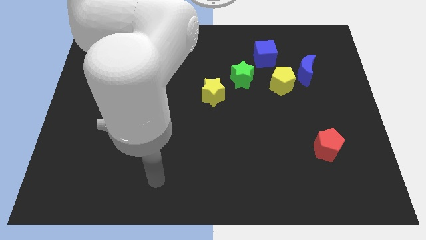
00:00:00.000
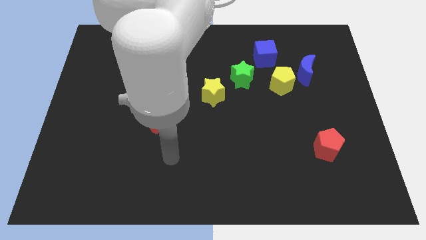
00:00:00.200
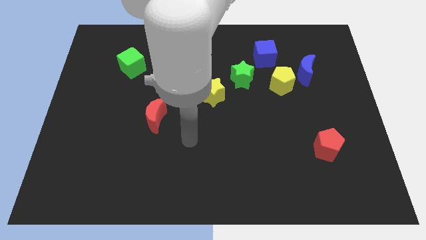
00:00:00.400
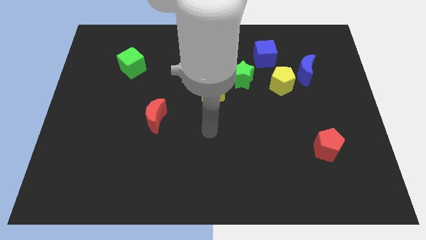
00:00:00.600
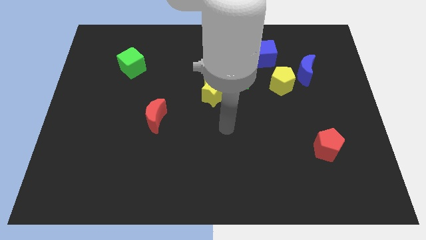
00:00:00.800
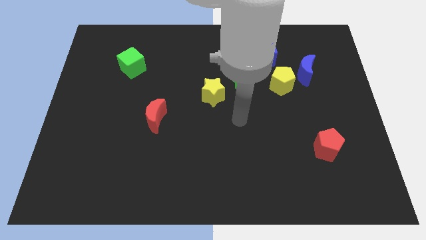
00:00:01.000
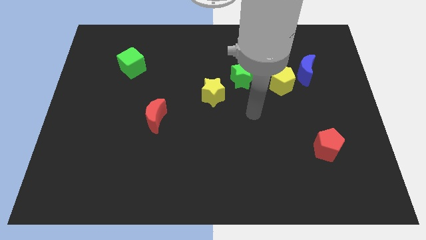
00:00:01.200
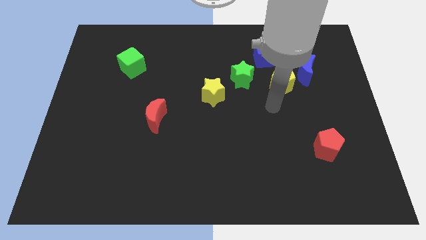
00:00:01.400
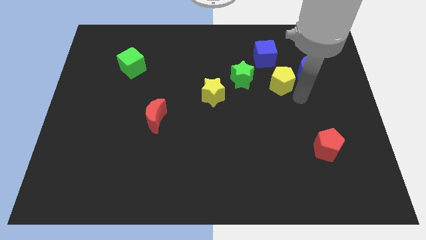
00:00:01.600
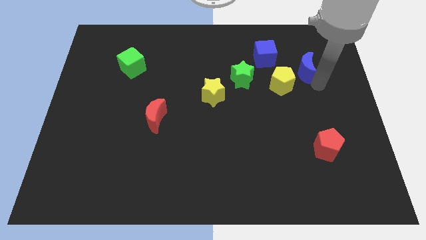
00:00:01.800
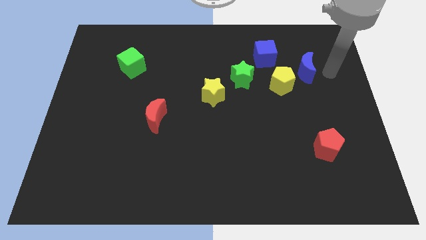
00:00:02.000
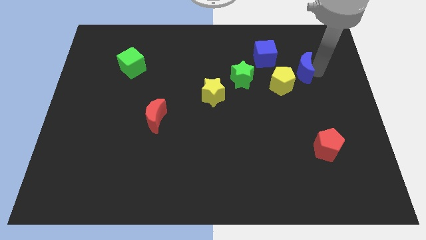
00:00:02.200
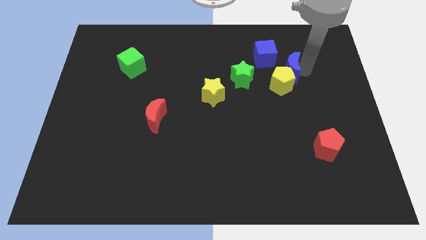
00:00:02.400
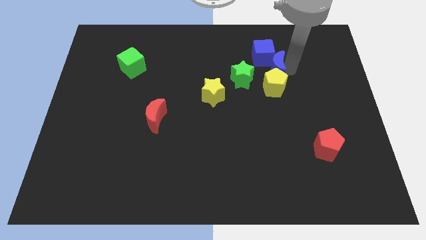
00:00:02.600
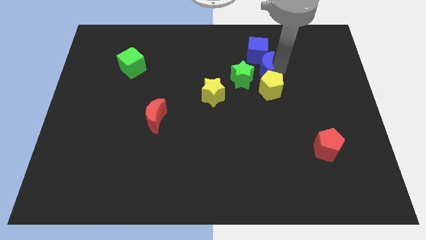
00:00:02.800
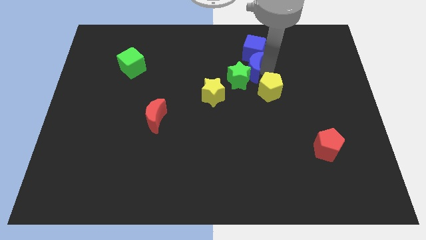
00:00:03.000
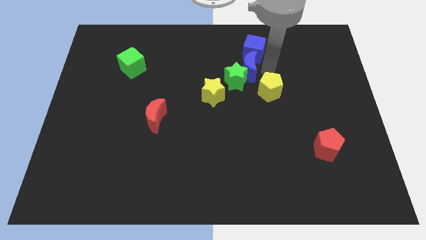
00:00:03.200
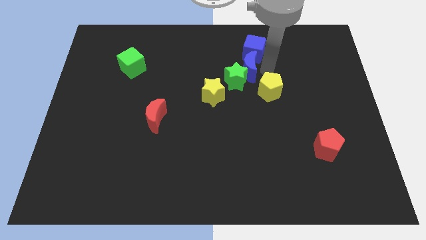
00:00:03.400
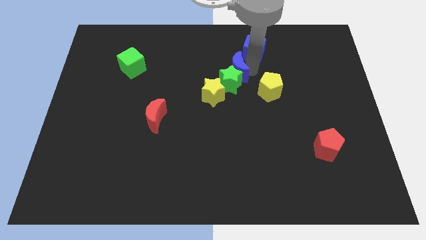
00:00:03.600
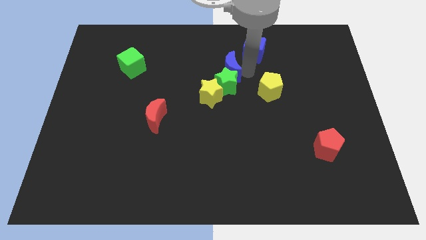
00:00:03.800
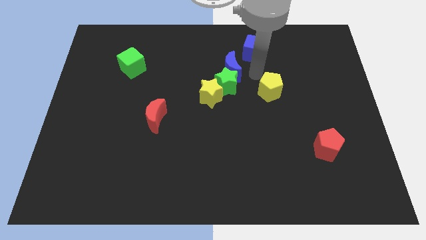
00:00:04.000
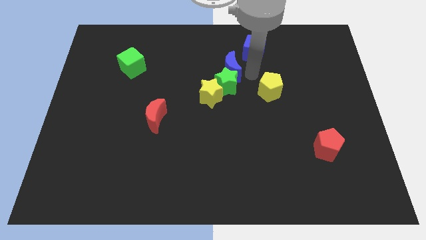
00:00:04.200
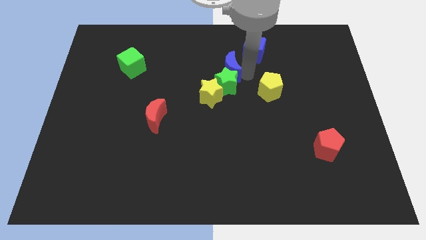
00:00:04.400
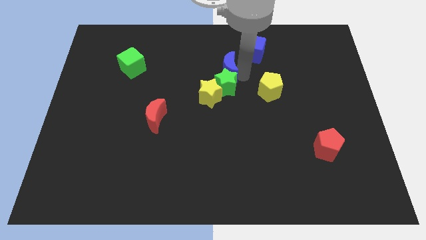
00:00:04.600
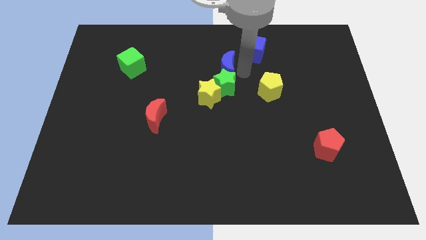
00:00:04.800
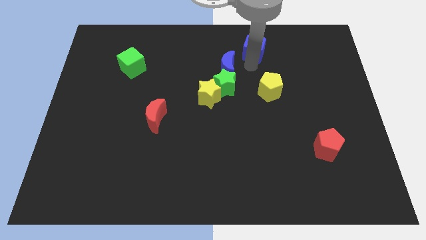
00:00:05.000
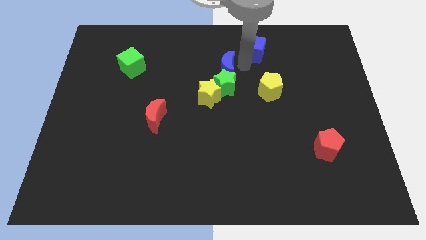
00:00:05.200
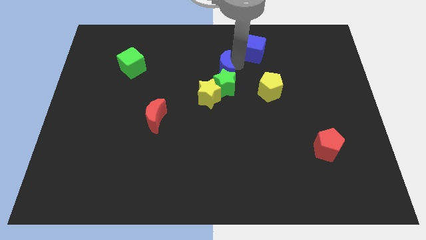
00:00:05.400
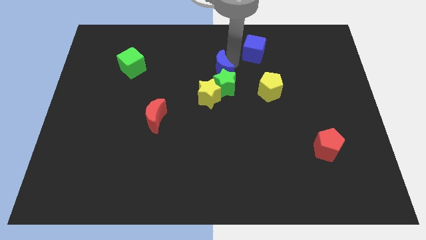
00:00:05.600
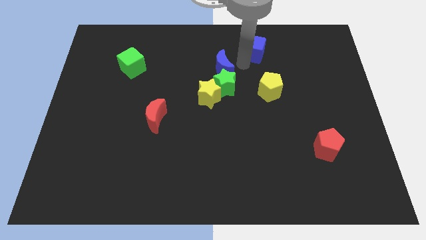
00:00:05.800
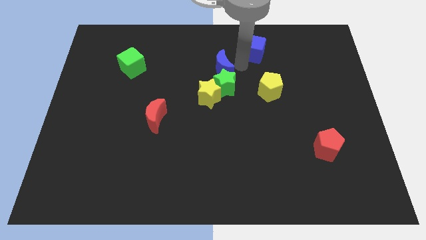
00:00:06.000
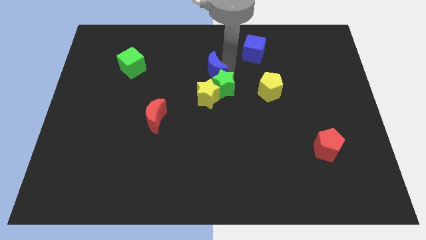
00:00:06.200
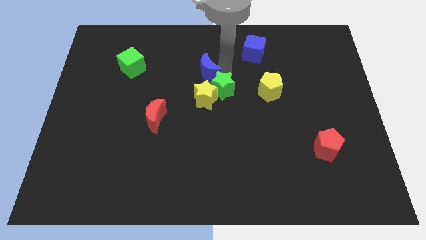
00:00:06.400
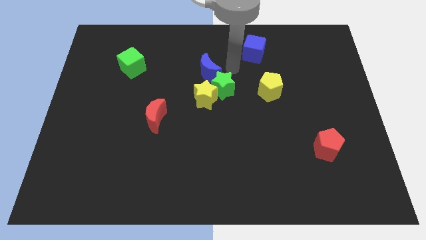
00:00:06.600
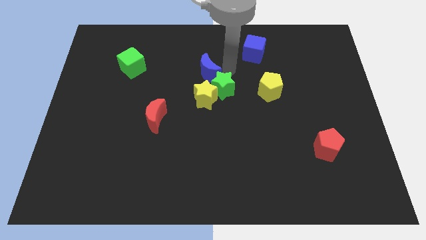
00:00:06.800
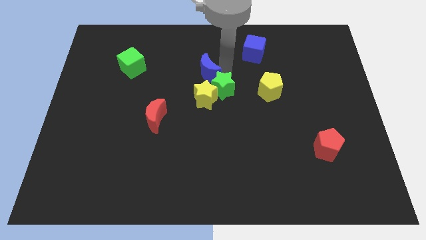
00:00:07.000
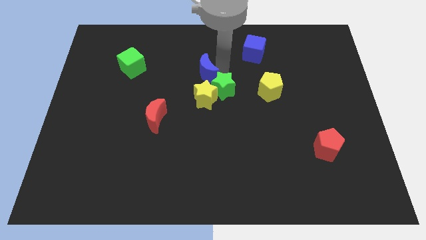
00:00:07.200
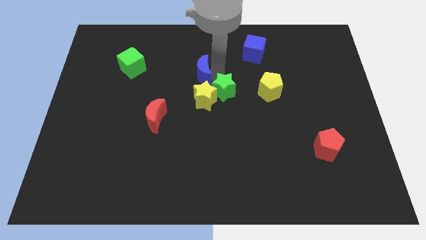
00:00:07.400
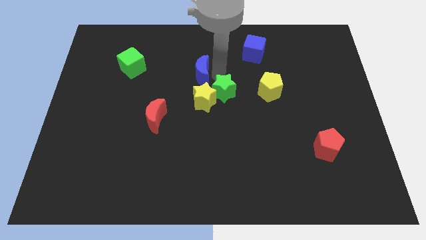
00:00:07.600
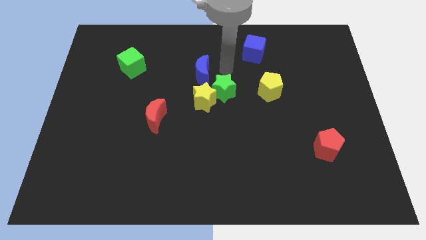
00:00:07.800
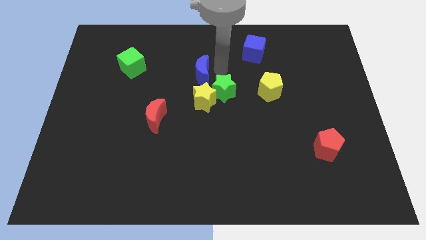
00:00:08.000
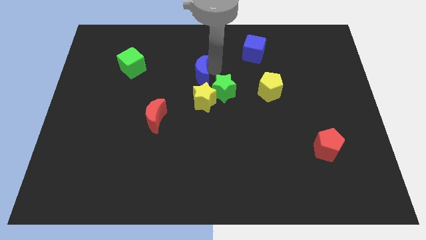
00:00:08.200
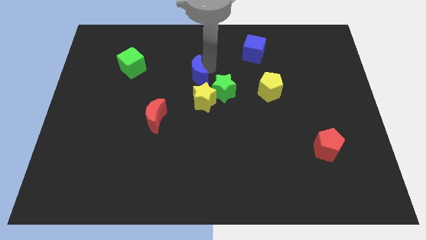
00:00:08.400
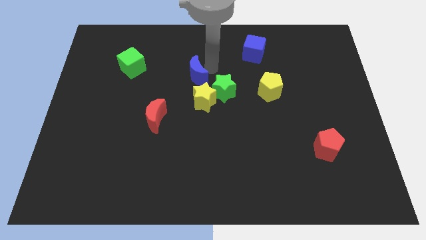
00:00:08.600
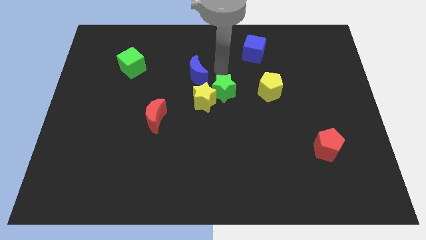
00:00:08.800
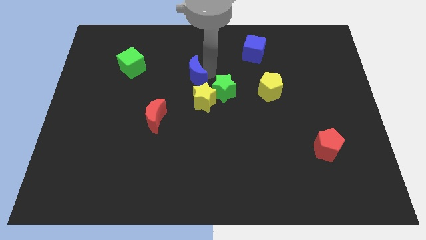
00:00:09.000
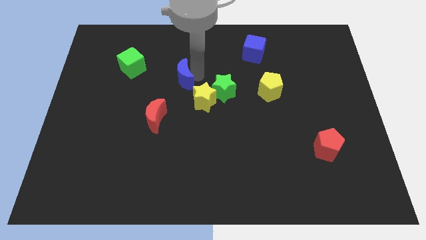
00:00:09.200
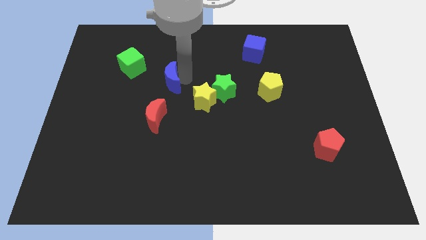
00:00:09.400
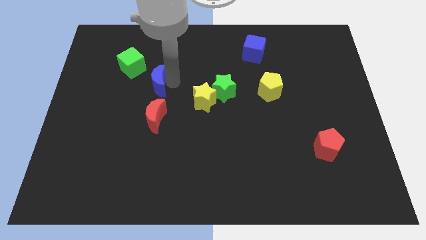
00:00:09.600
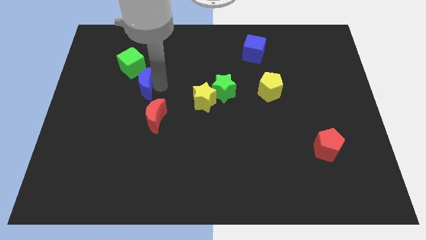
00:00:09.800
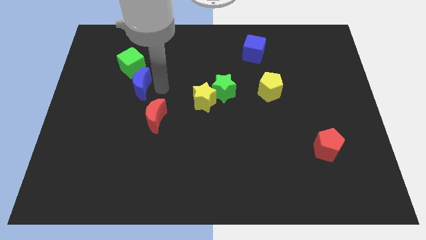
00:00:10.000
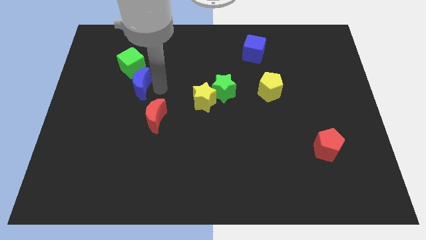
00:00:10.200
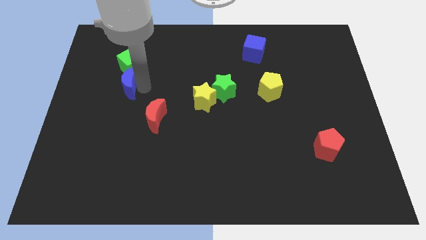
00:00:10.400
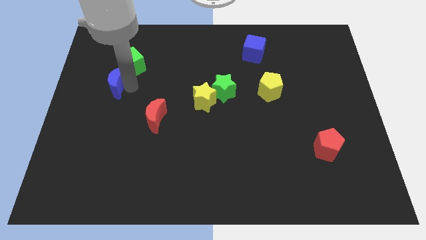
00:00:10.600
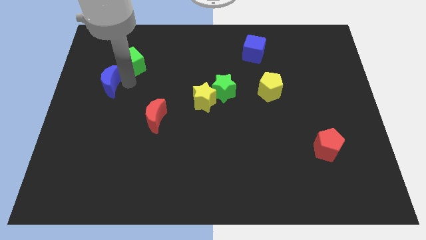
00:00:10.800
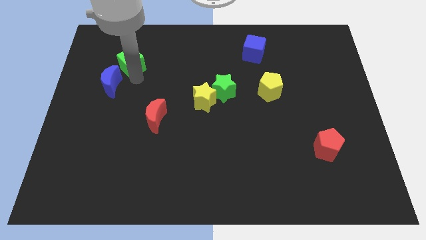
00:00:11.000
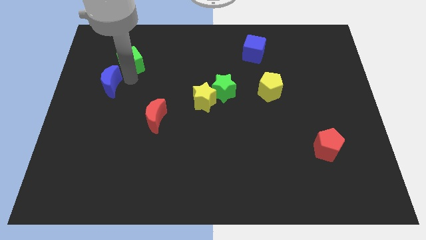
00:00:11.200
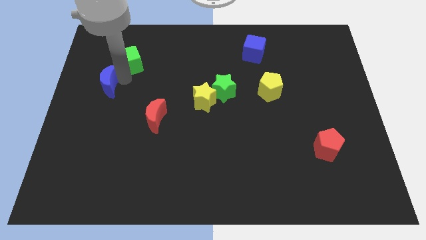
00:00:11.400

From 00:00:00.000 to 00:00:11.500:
push the blue moon to the left side of the board

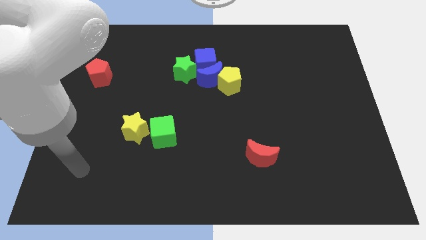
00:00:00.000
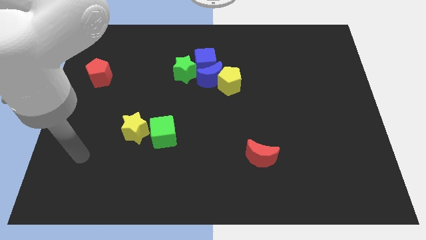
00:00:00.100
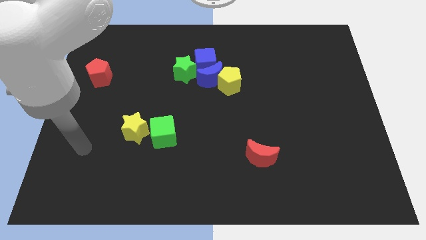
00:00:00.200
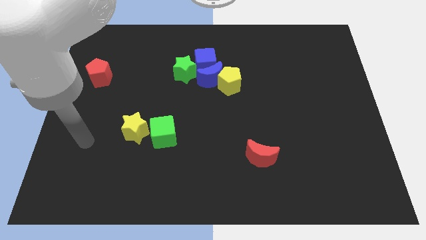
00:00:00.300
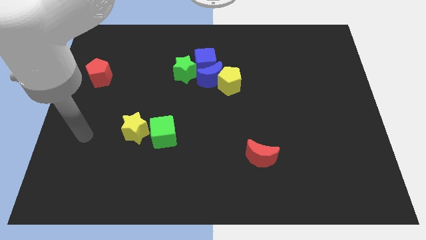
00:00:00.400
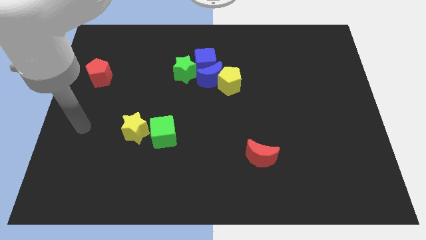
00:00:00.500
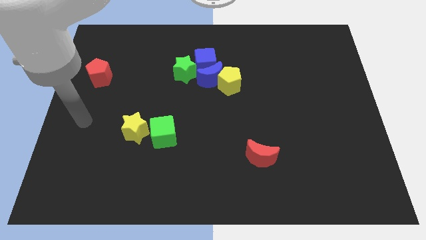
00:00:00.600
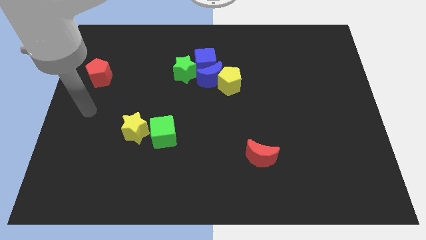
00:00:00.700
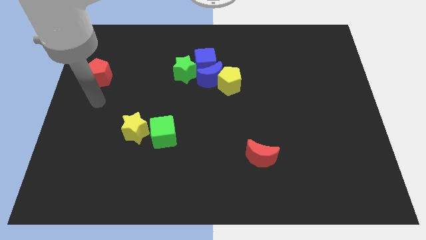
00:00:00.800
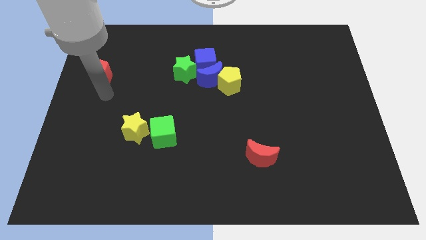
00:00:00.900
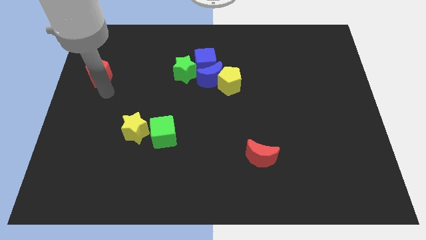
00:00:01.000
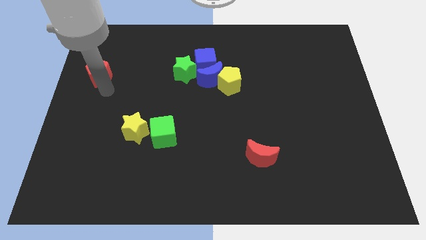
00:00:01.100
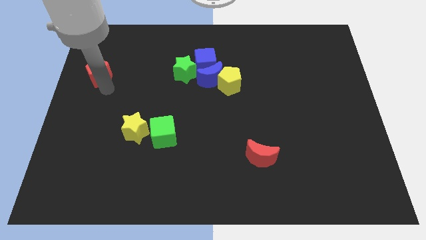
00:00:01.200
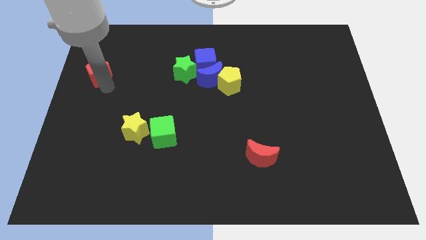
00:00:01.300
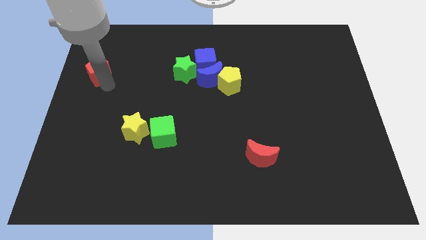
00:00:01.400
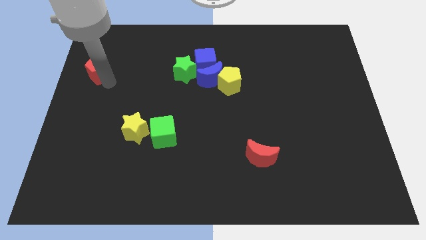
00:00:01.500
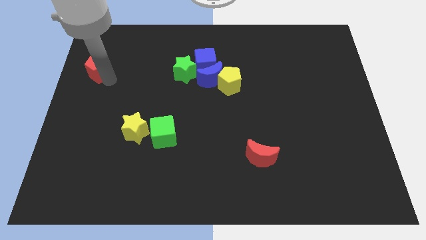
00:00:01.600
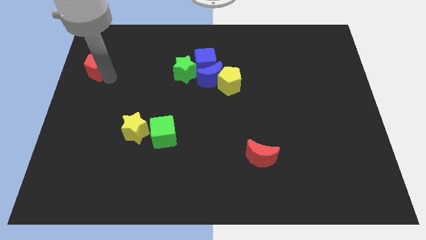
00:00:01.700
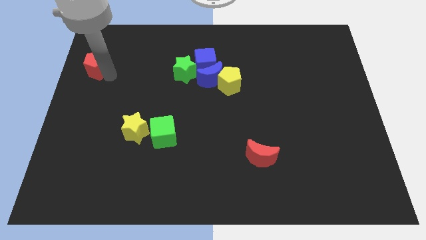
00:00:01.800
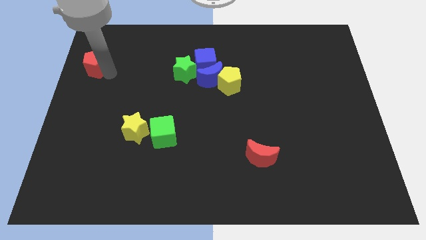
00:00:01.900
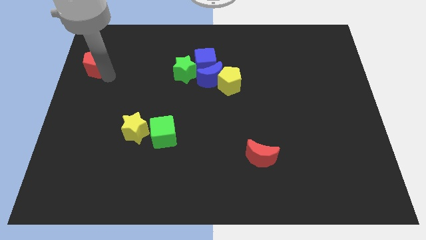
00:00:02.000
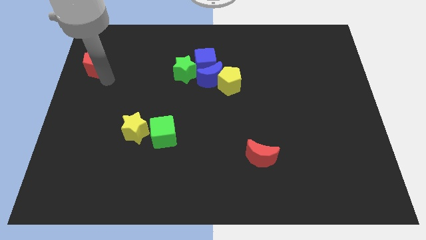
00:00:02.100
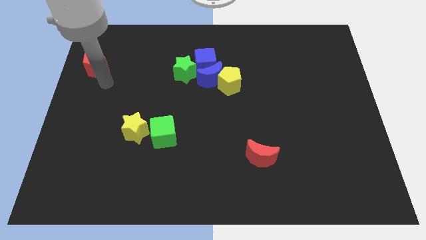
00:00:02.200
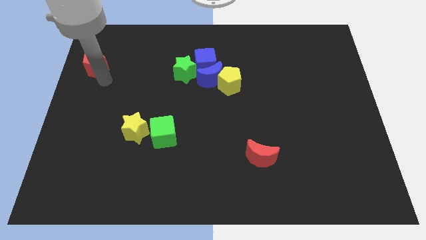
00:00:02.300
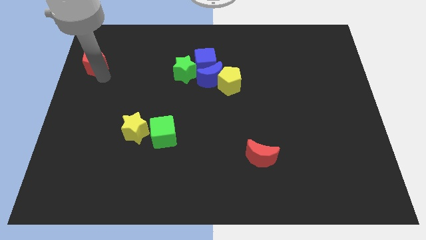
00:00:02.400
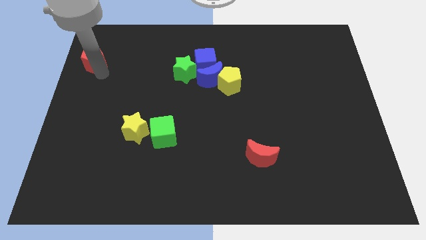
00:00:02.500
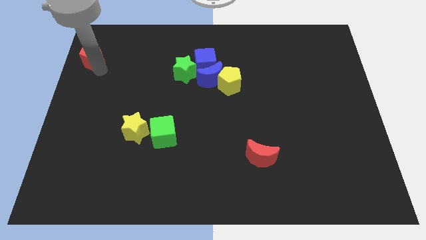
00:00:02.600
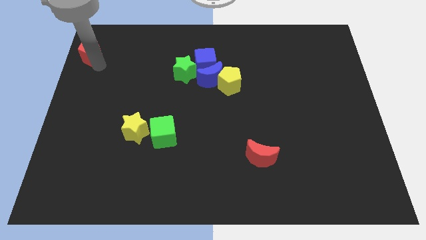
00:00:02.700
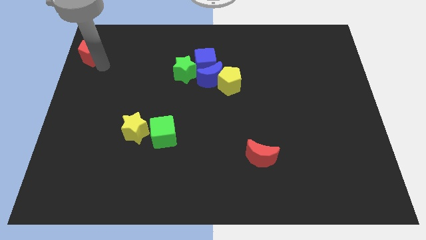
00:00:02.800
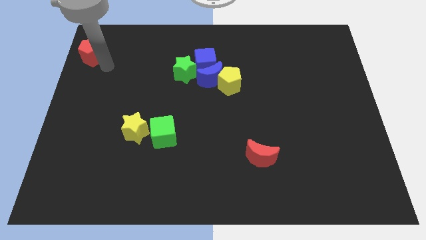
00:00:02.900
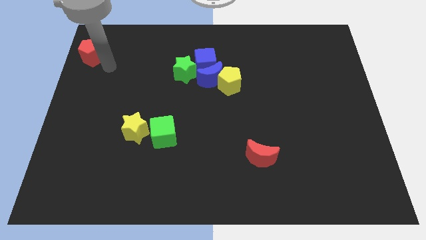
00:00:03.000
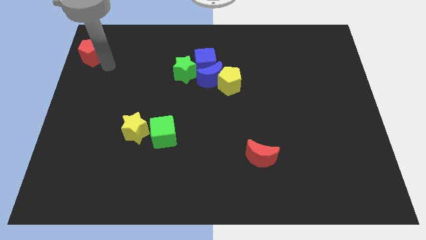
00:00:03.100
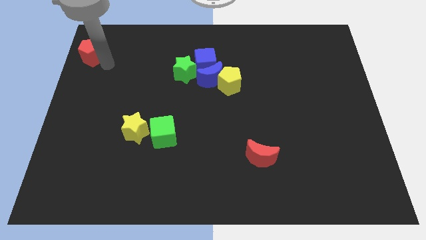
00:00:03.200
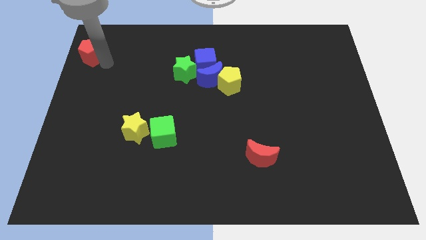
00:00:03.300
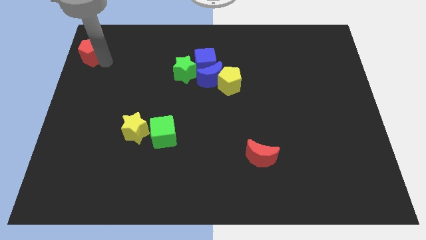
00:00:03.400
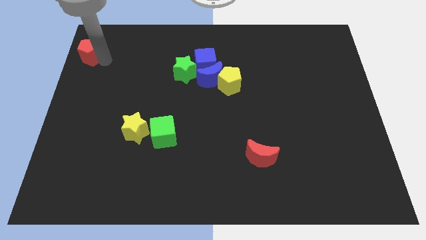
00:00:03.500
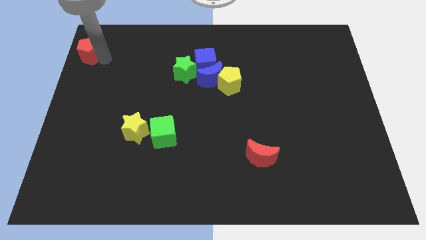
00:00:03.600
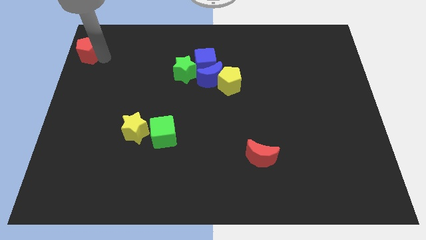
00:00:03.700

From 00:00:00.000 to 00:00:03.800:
push the red pentagon to the upper left corner
